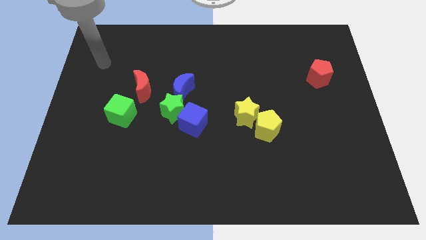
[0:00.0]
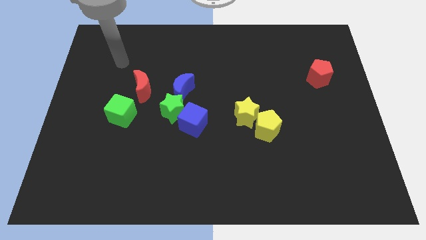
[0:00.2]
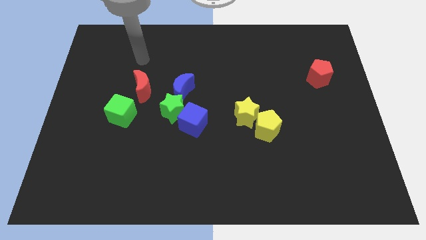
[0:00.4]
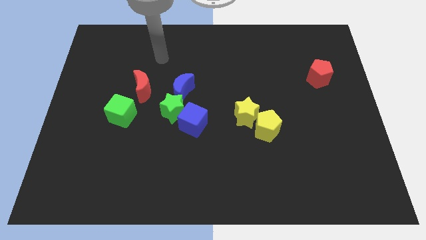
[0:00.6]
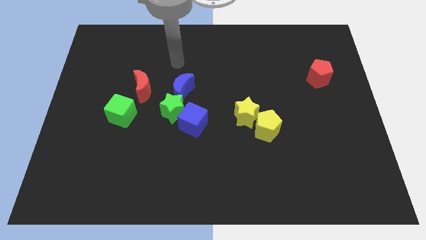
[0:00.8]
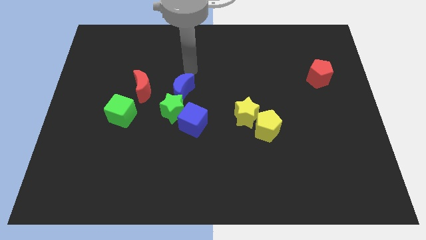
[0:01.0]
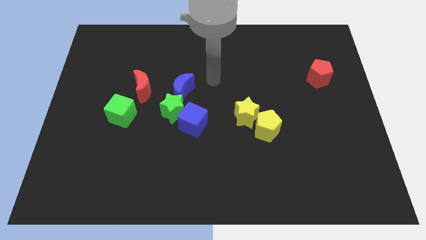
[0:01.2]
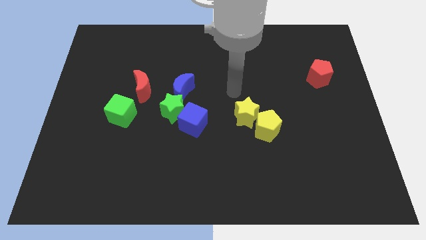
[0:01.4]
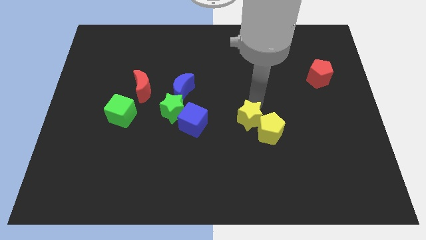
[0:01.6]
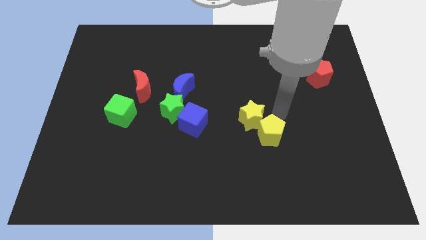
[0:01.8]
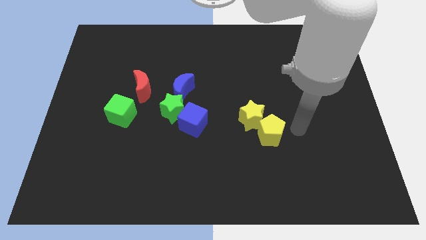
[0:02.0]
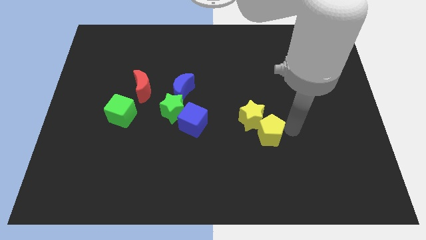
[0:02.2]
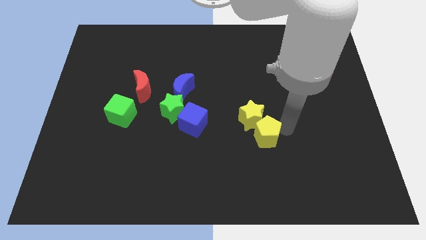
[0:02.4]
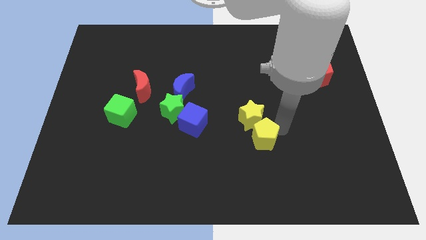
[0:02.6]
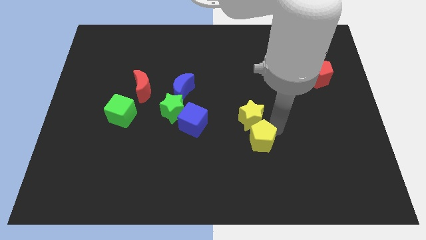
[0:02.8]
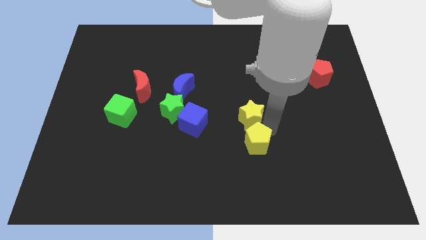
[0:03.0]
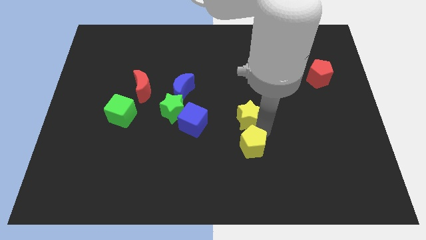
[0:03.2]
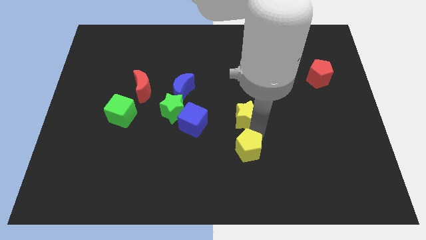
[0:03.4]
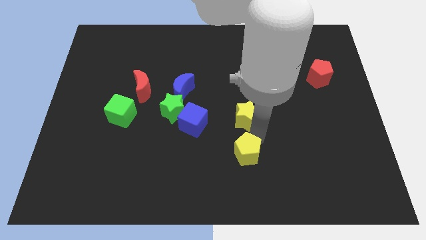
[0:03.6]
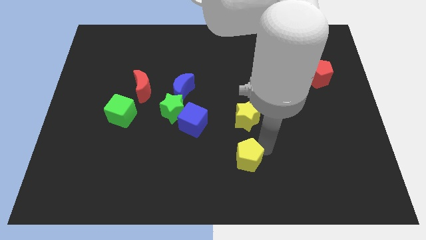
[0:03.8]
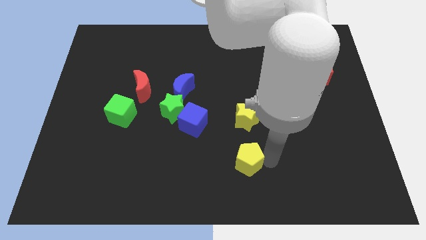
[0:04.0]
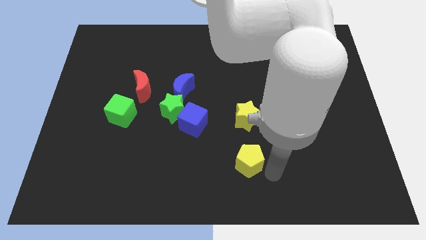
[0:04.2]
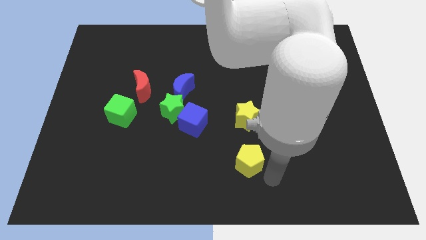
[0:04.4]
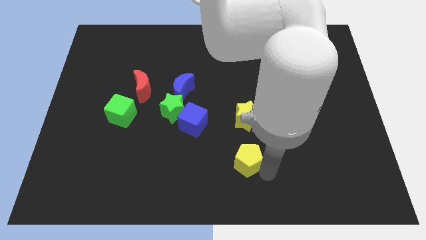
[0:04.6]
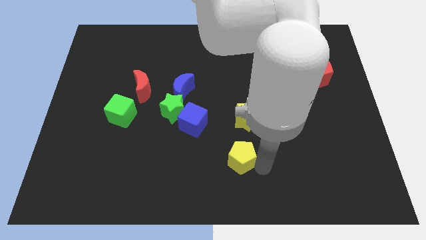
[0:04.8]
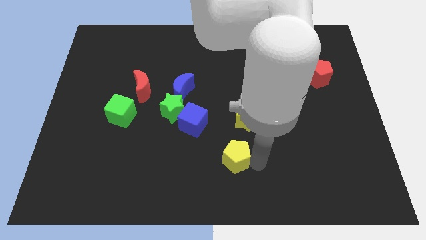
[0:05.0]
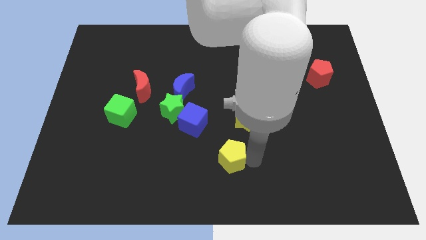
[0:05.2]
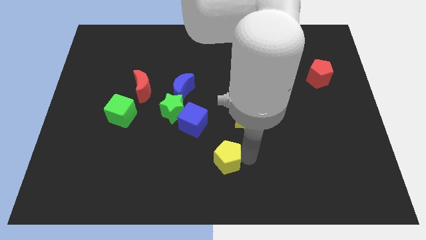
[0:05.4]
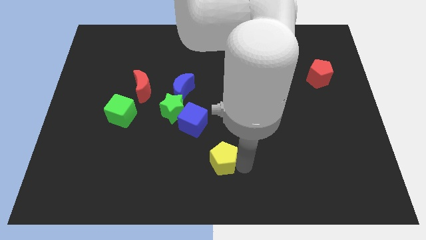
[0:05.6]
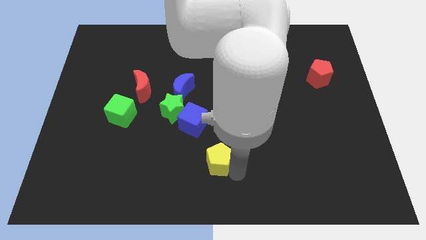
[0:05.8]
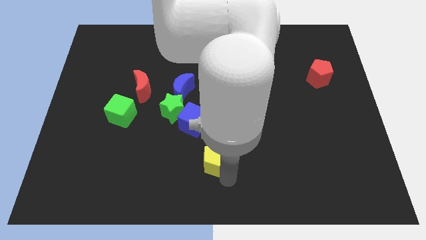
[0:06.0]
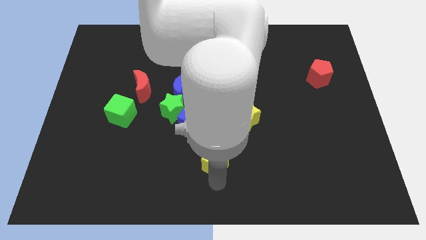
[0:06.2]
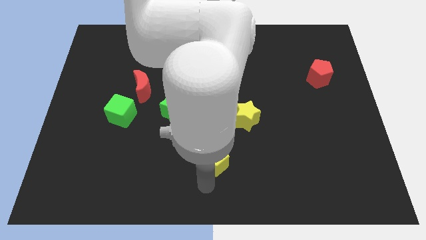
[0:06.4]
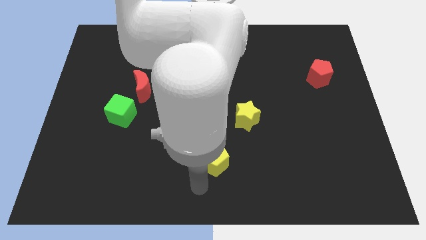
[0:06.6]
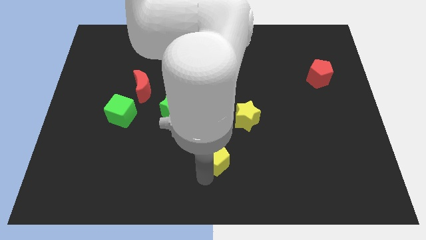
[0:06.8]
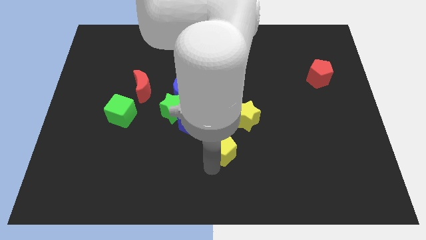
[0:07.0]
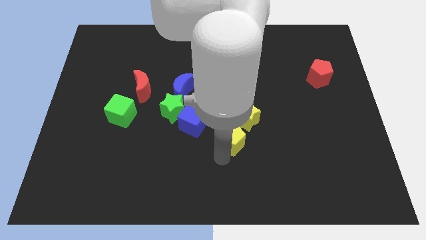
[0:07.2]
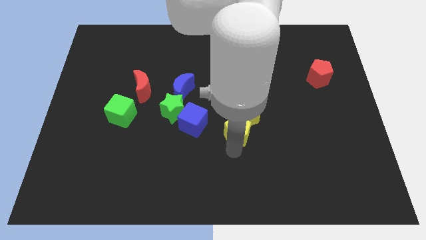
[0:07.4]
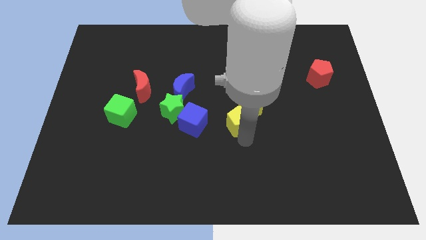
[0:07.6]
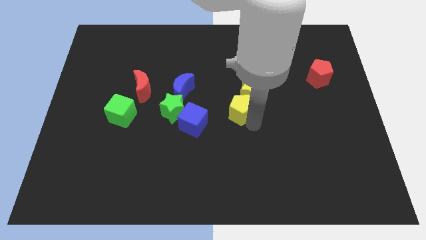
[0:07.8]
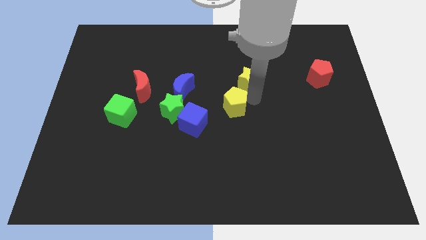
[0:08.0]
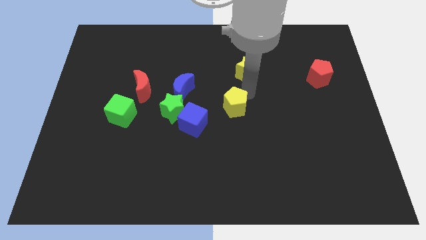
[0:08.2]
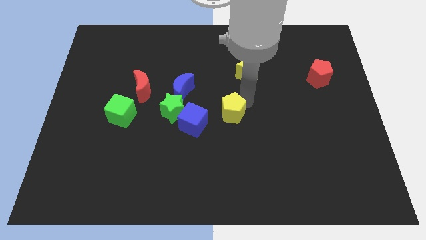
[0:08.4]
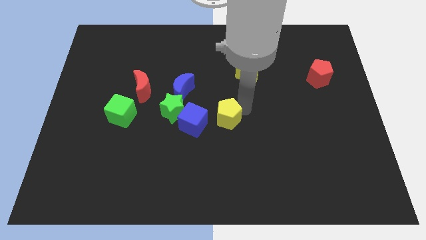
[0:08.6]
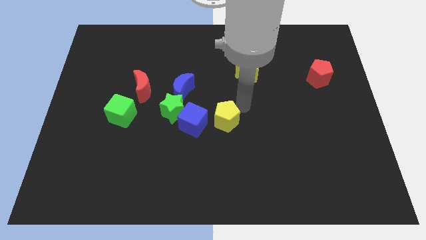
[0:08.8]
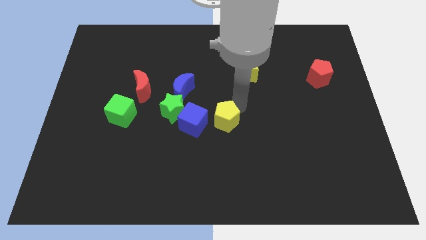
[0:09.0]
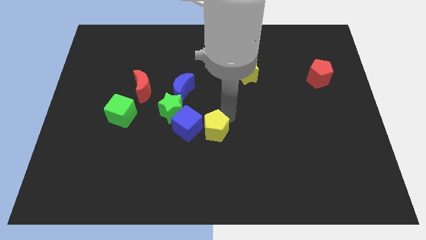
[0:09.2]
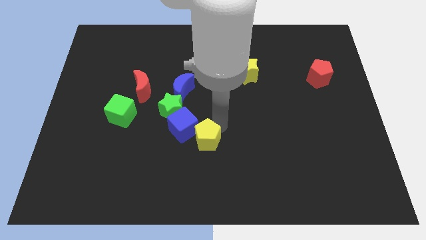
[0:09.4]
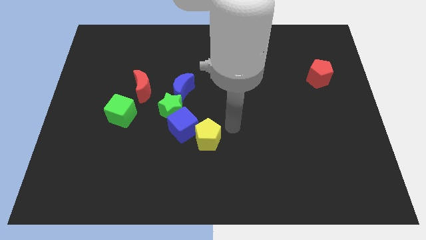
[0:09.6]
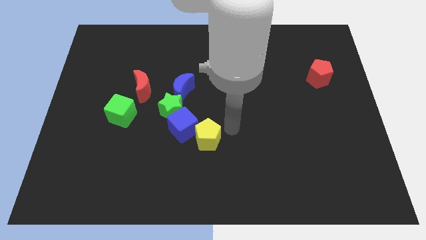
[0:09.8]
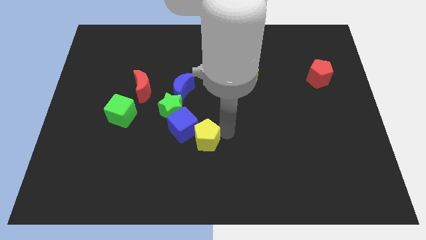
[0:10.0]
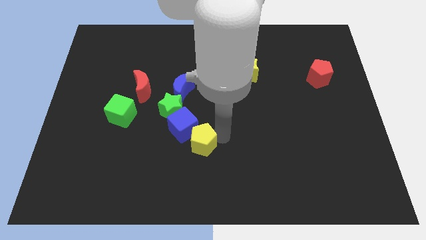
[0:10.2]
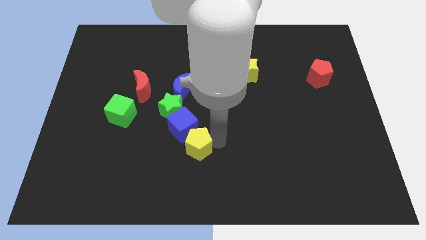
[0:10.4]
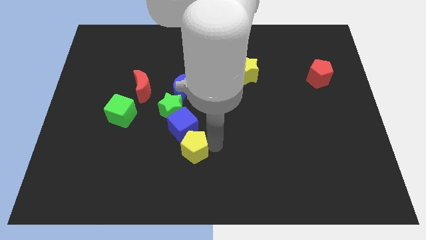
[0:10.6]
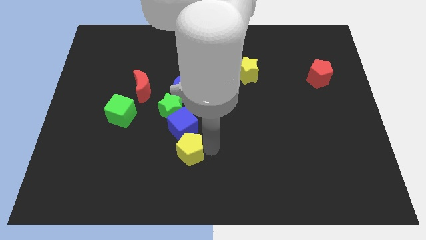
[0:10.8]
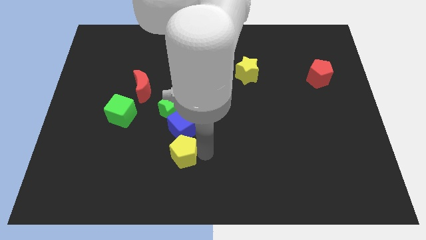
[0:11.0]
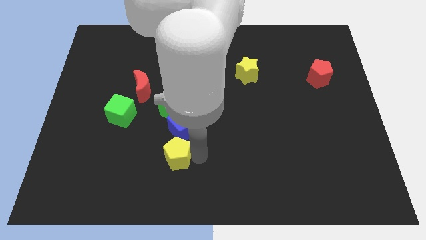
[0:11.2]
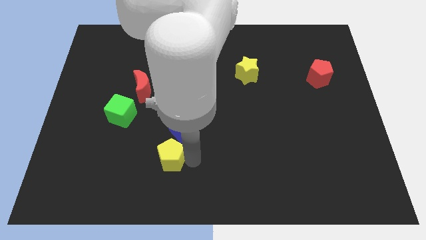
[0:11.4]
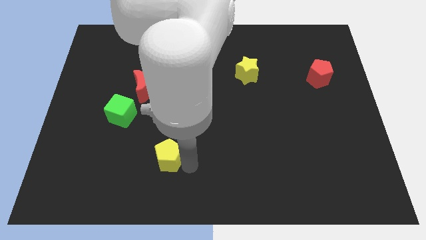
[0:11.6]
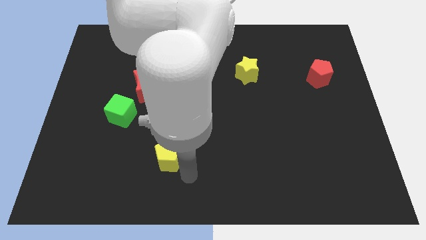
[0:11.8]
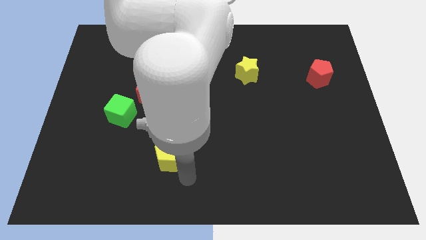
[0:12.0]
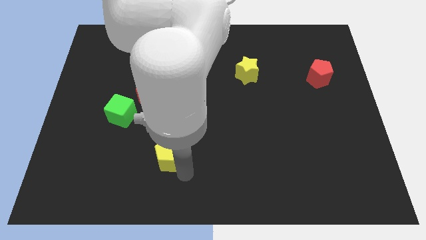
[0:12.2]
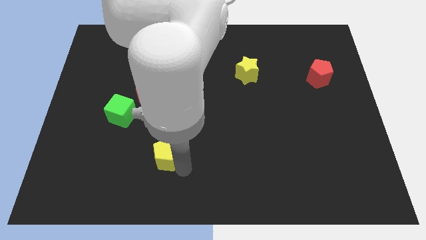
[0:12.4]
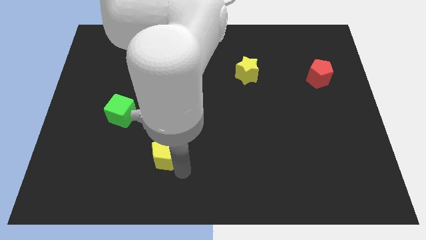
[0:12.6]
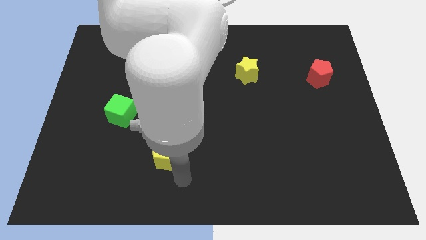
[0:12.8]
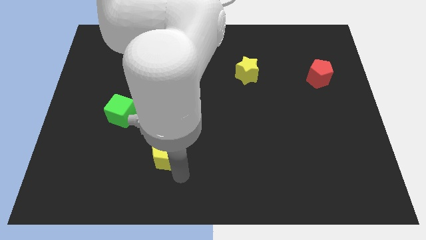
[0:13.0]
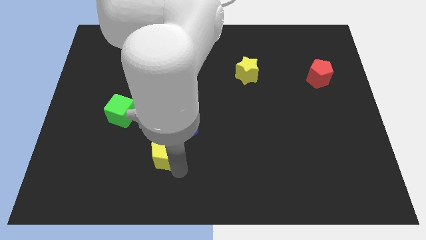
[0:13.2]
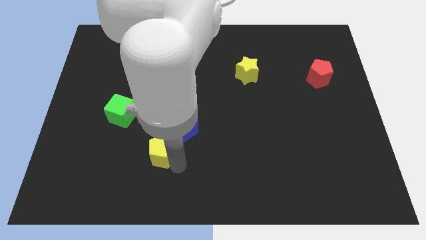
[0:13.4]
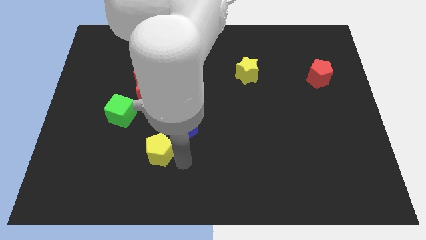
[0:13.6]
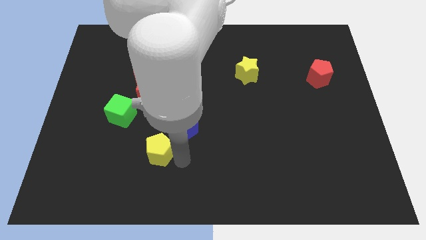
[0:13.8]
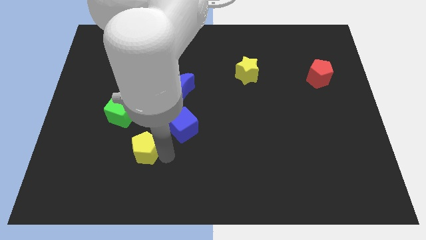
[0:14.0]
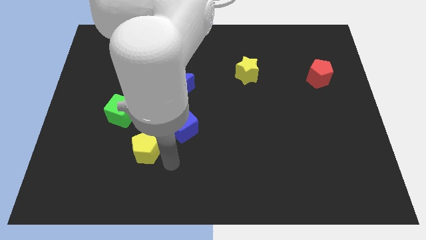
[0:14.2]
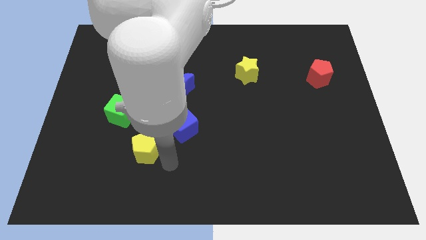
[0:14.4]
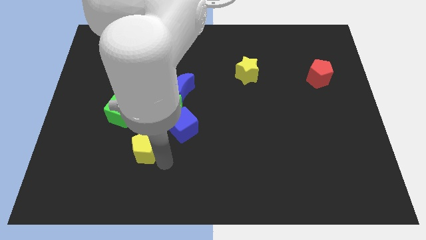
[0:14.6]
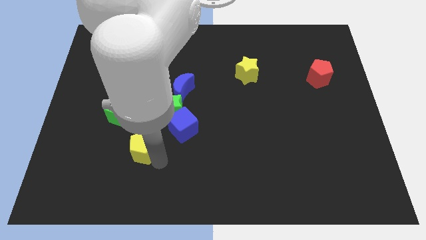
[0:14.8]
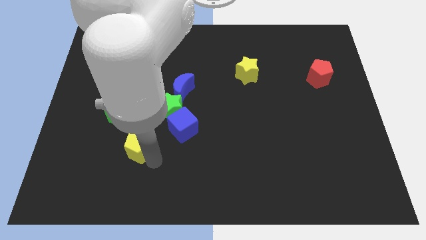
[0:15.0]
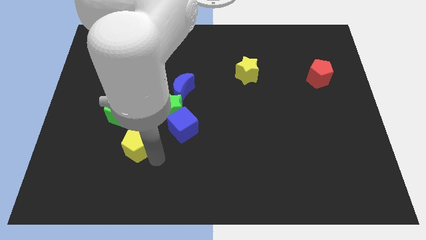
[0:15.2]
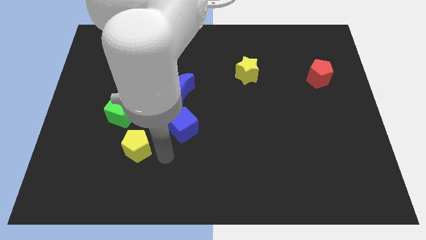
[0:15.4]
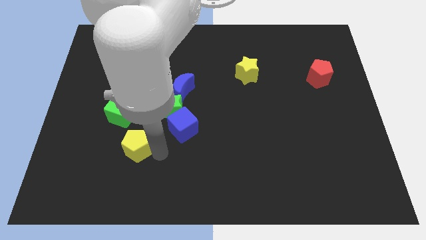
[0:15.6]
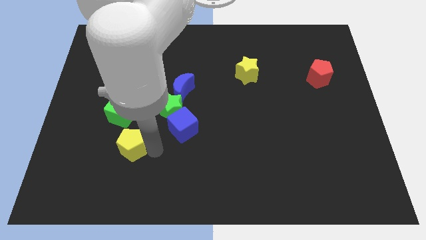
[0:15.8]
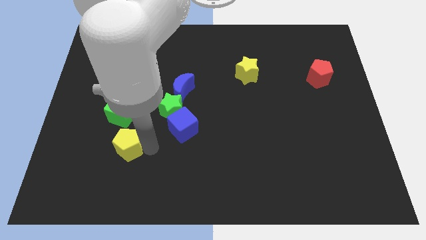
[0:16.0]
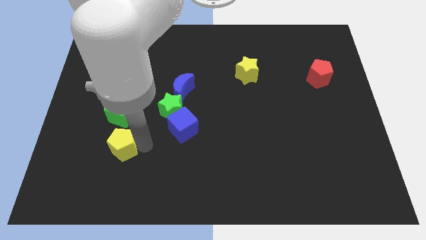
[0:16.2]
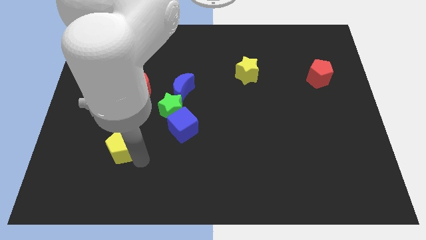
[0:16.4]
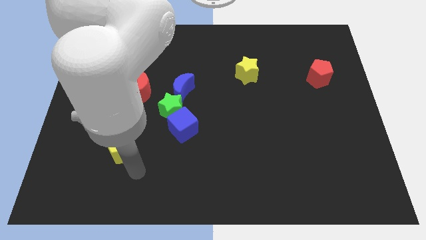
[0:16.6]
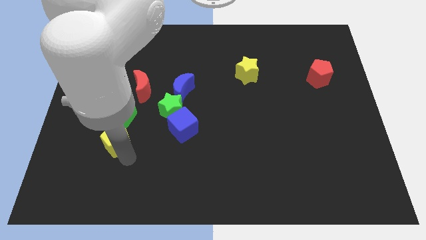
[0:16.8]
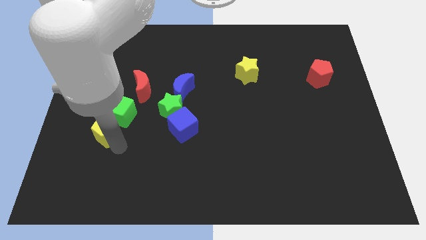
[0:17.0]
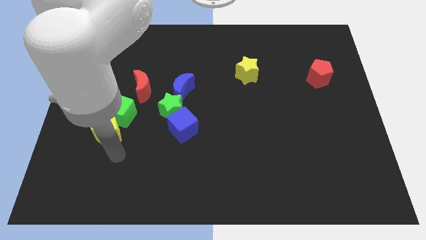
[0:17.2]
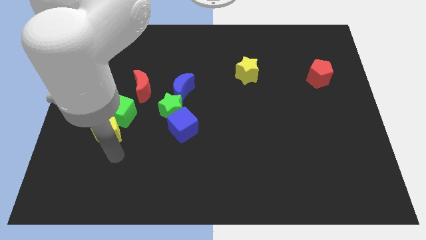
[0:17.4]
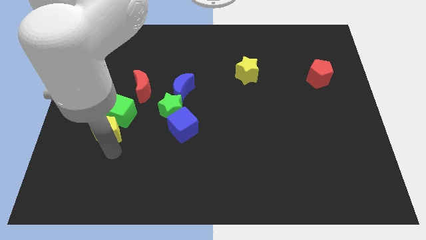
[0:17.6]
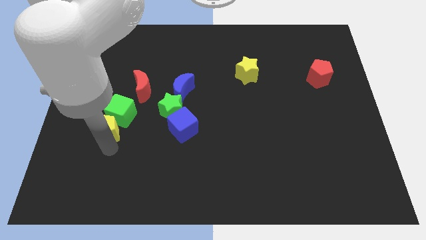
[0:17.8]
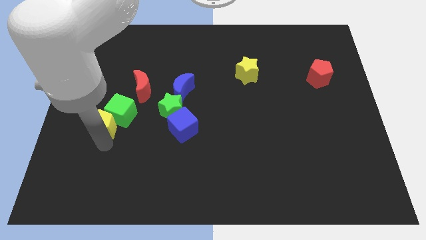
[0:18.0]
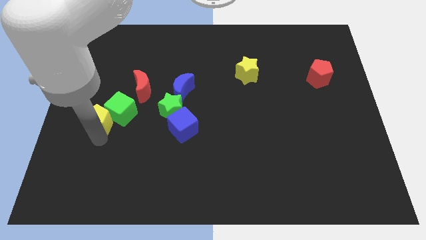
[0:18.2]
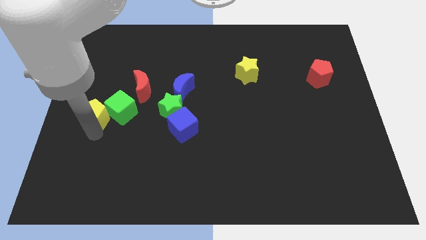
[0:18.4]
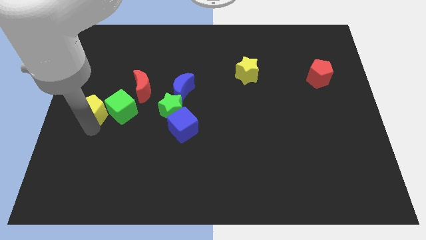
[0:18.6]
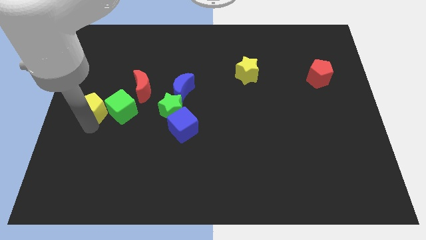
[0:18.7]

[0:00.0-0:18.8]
put the yellow pentagon to the top left of the green cube
